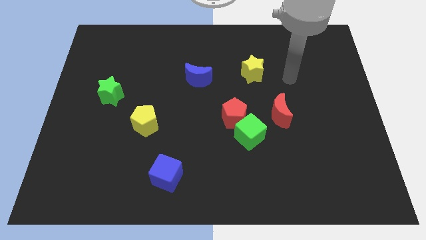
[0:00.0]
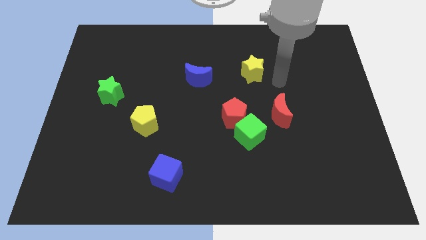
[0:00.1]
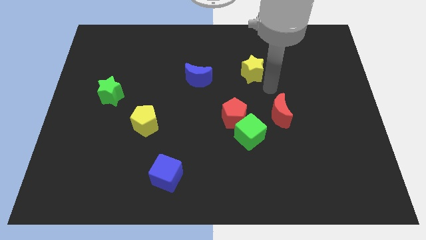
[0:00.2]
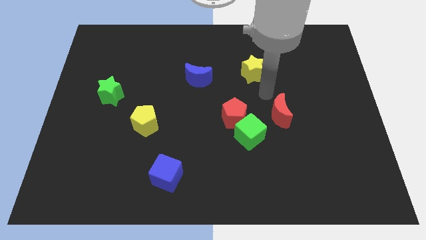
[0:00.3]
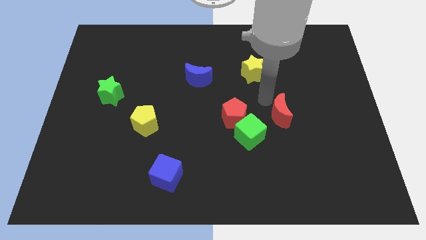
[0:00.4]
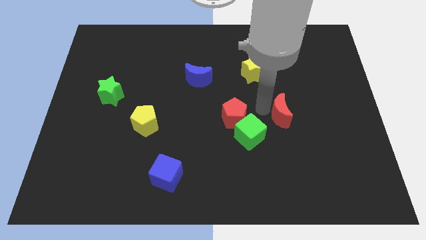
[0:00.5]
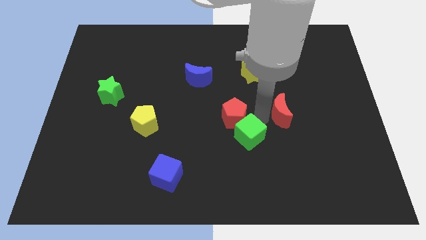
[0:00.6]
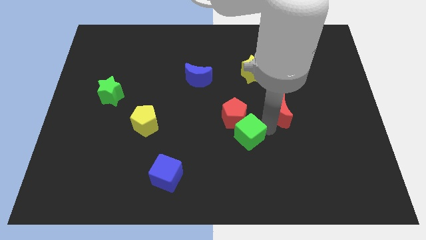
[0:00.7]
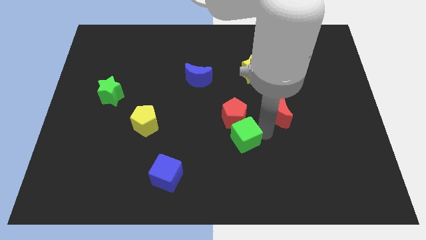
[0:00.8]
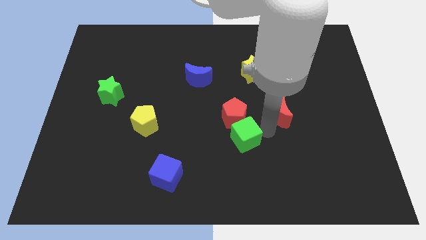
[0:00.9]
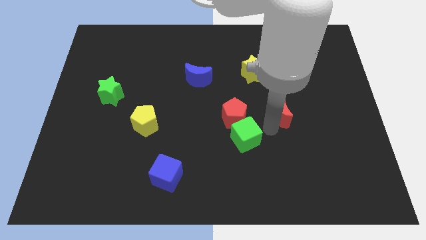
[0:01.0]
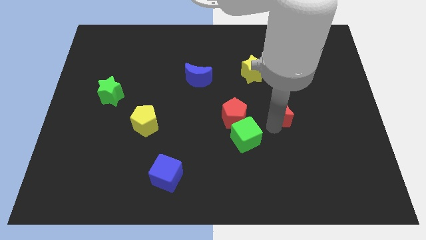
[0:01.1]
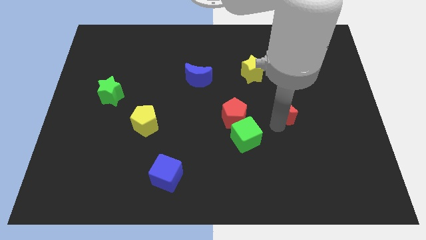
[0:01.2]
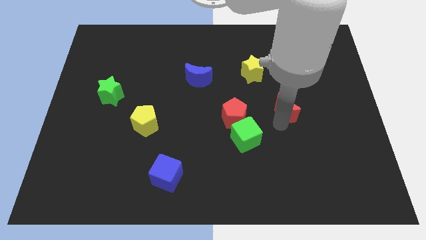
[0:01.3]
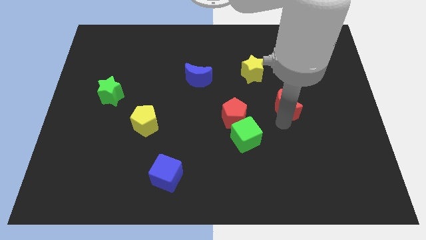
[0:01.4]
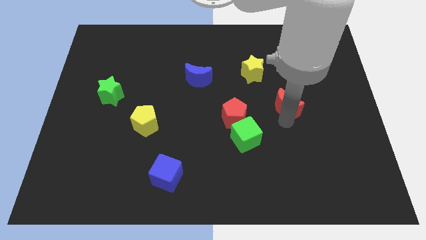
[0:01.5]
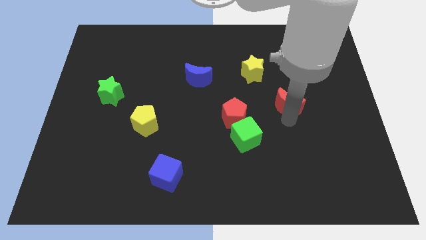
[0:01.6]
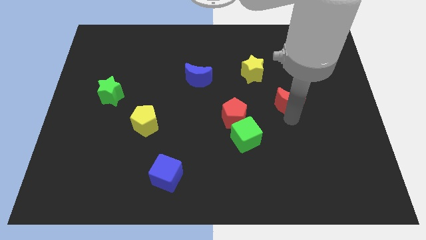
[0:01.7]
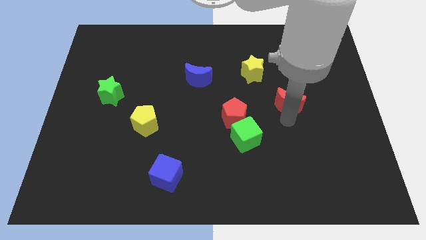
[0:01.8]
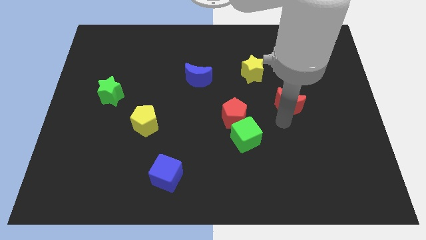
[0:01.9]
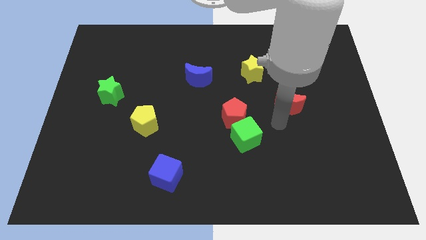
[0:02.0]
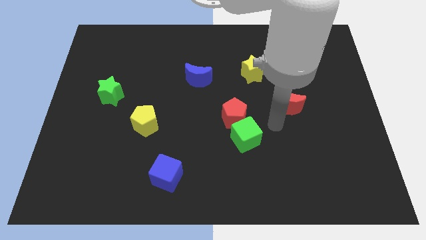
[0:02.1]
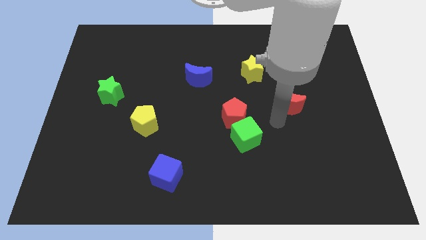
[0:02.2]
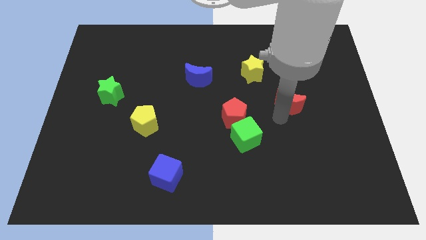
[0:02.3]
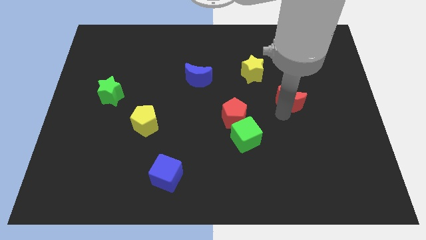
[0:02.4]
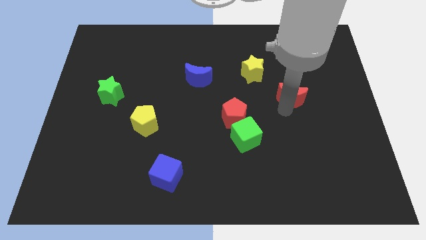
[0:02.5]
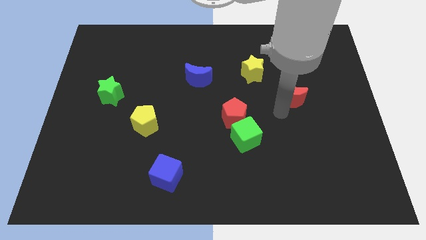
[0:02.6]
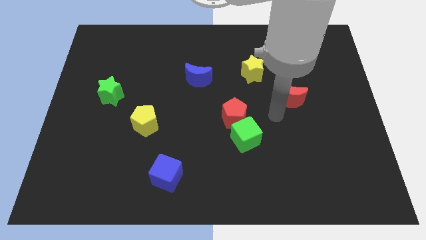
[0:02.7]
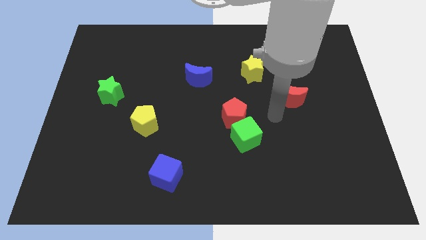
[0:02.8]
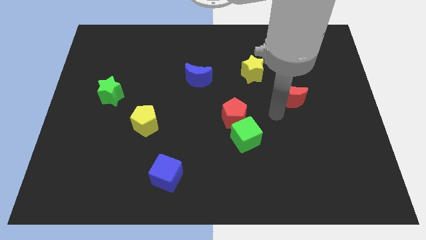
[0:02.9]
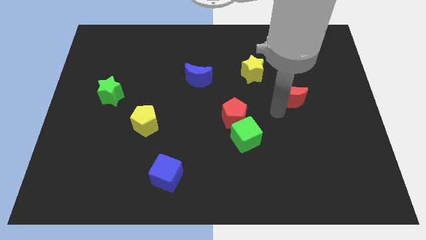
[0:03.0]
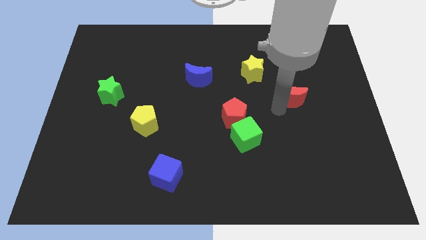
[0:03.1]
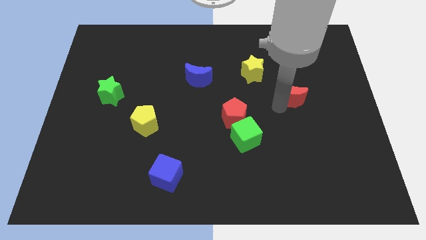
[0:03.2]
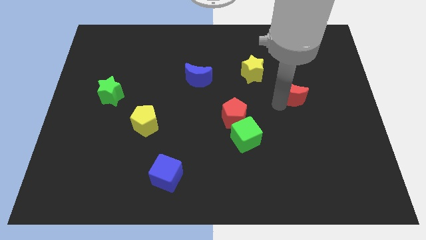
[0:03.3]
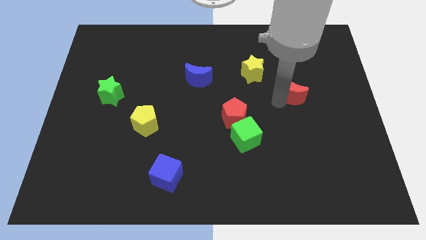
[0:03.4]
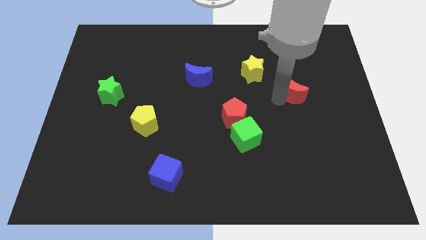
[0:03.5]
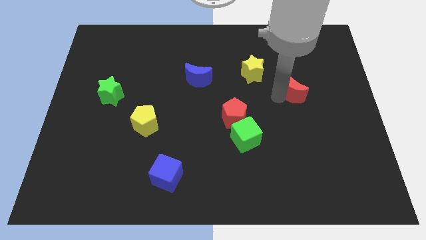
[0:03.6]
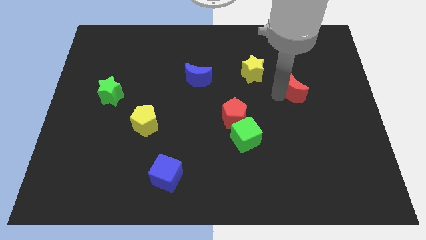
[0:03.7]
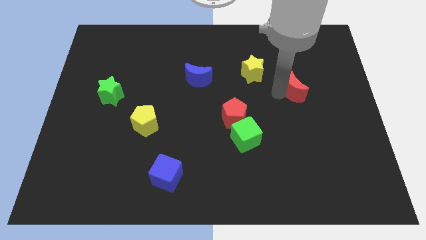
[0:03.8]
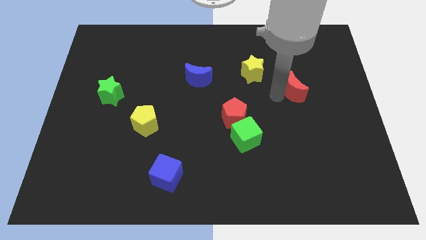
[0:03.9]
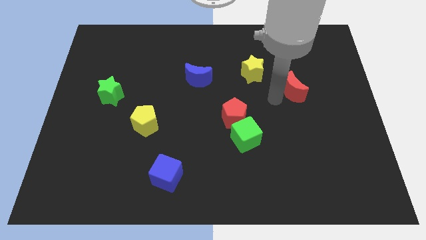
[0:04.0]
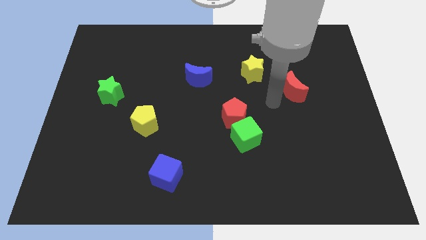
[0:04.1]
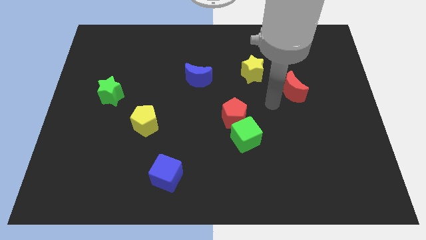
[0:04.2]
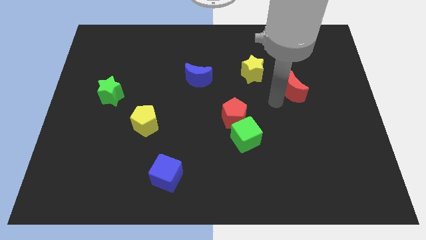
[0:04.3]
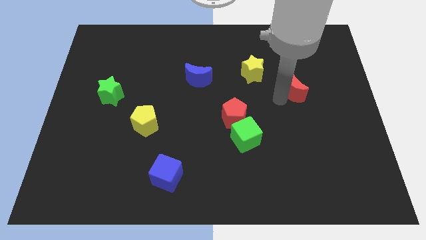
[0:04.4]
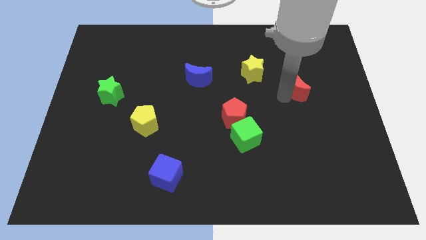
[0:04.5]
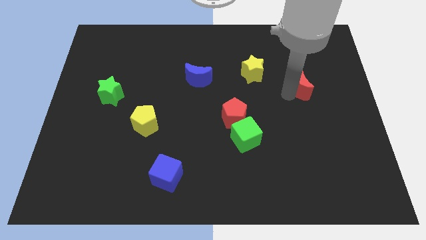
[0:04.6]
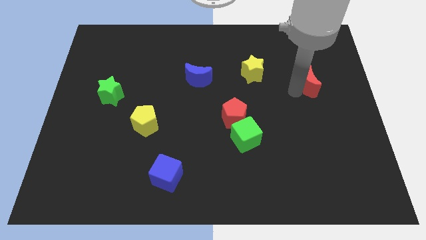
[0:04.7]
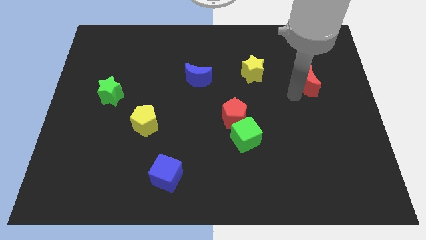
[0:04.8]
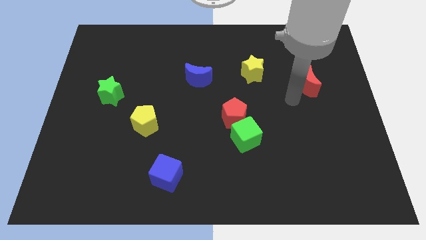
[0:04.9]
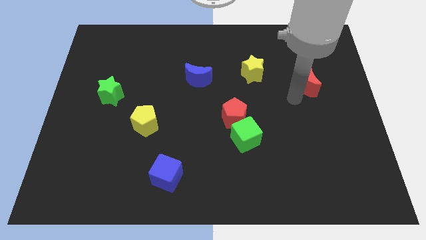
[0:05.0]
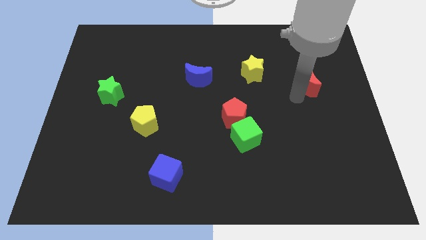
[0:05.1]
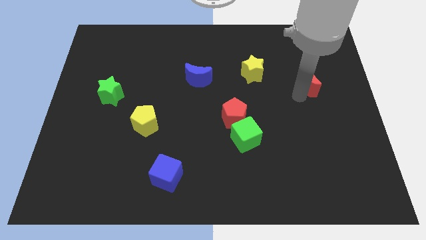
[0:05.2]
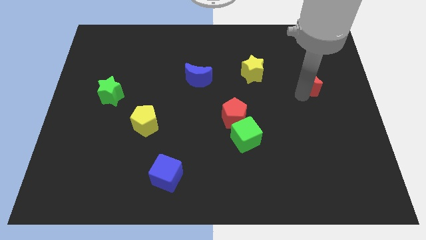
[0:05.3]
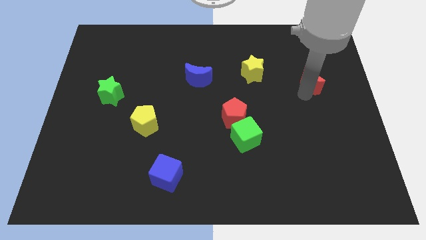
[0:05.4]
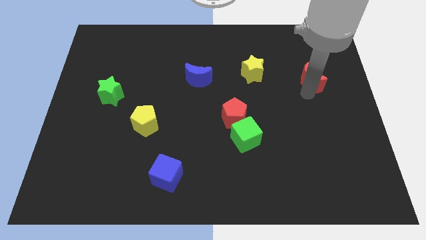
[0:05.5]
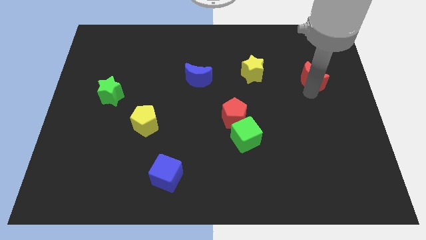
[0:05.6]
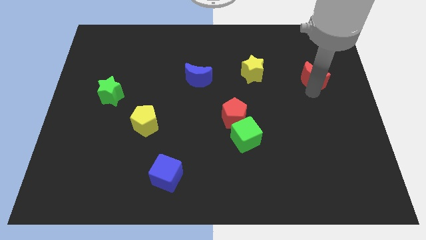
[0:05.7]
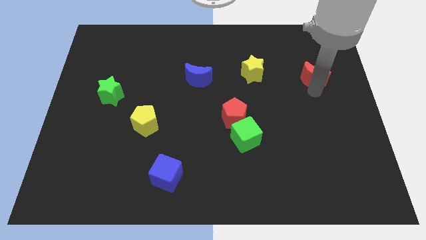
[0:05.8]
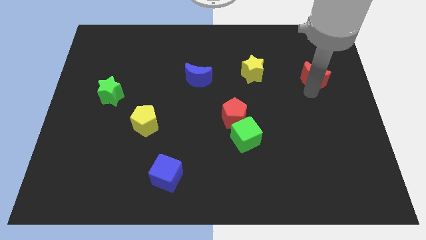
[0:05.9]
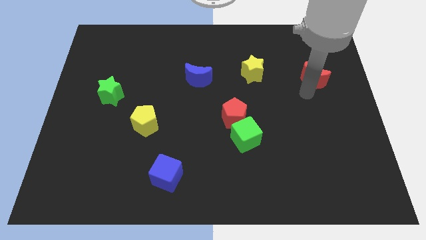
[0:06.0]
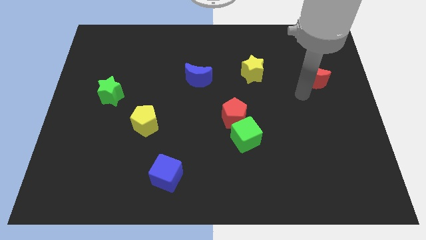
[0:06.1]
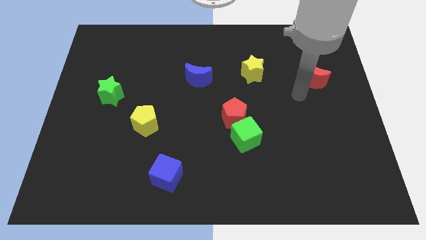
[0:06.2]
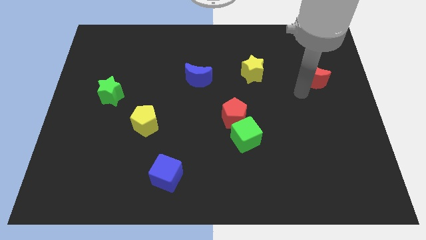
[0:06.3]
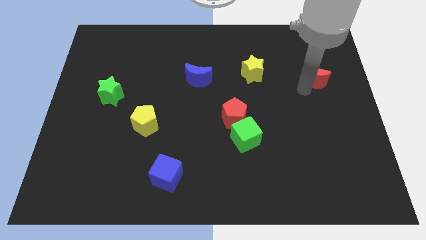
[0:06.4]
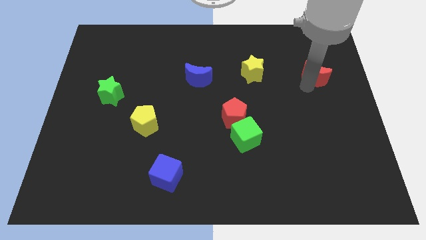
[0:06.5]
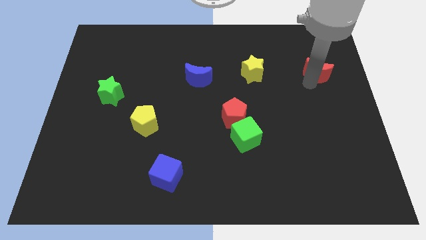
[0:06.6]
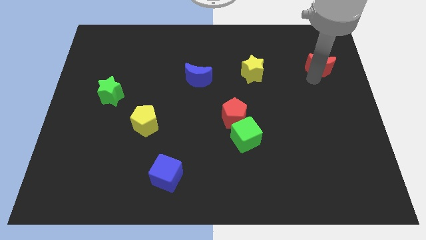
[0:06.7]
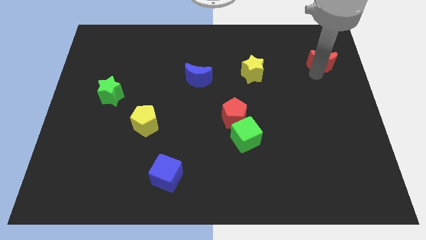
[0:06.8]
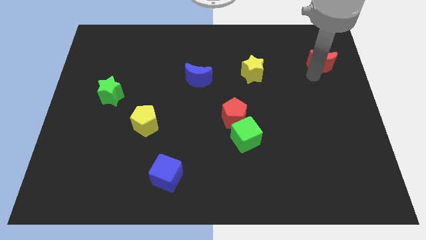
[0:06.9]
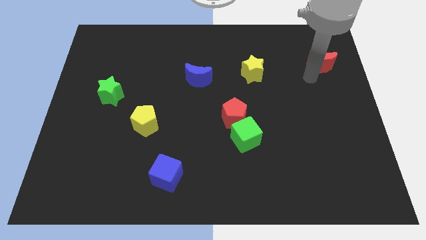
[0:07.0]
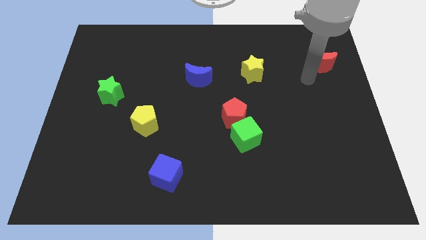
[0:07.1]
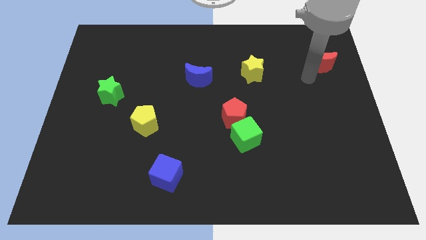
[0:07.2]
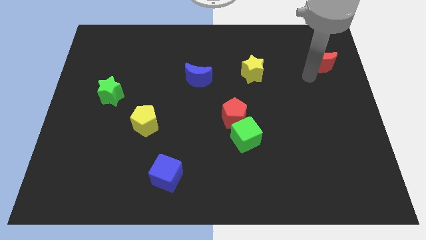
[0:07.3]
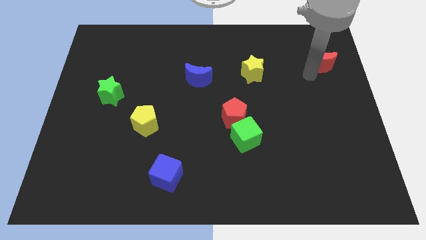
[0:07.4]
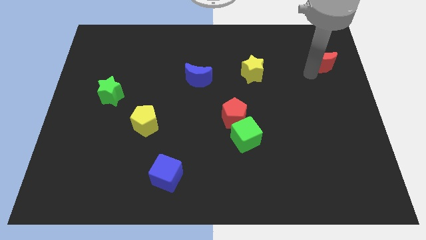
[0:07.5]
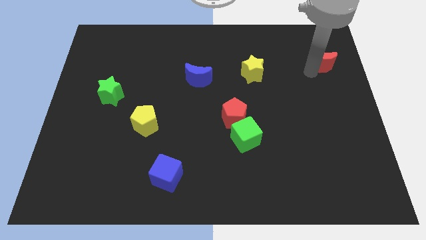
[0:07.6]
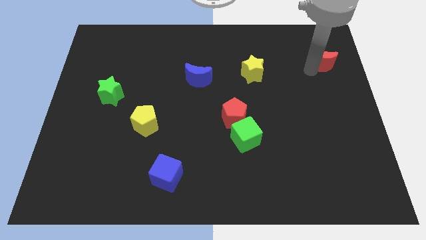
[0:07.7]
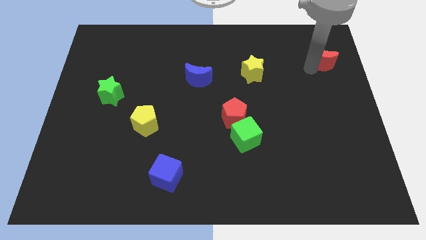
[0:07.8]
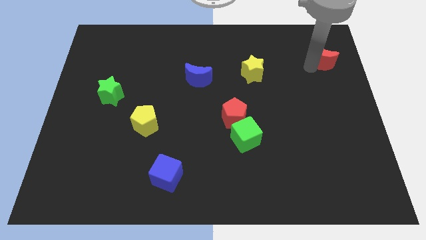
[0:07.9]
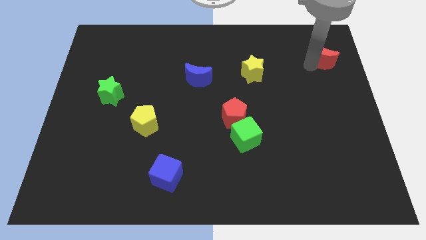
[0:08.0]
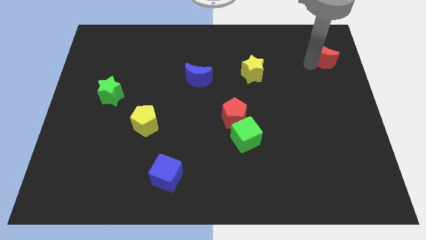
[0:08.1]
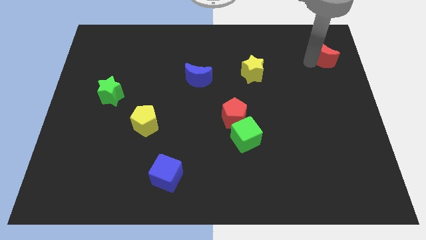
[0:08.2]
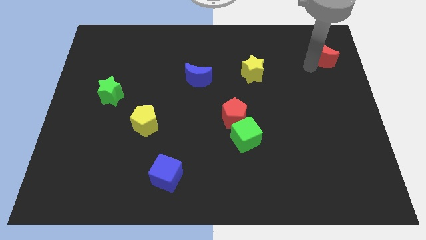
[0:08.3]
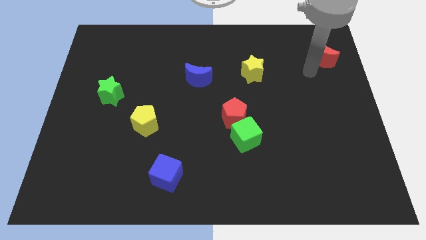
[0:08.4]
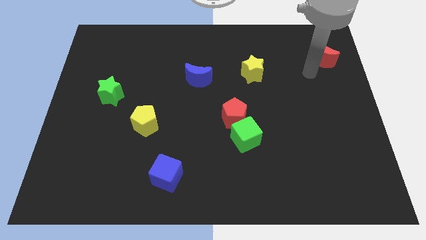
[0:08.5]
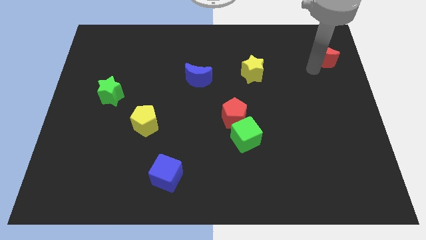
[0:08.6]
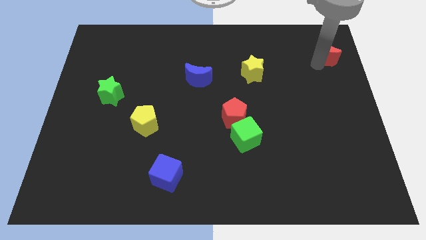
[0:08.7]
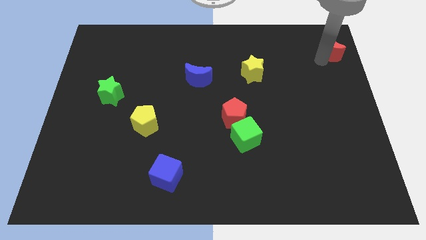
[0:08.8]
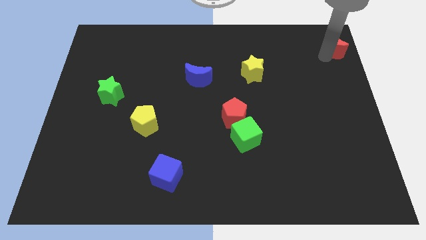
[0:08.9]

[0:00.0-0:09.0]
put the red moon to the top right corner
